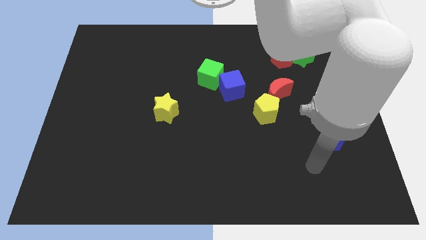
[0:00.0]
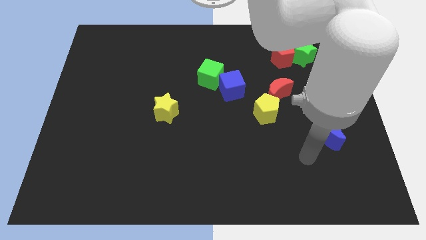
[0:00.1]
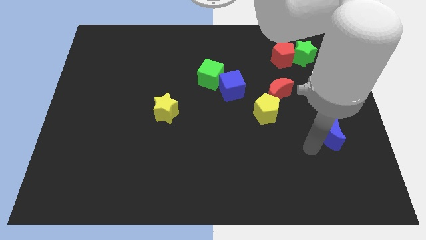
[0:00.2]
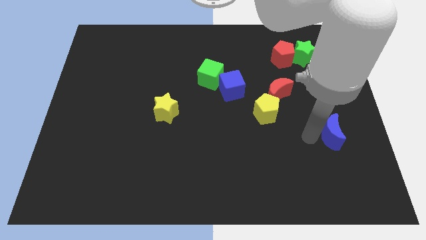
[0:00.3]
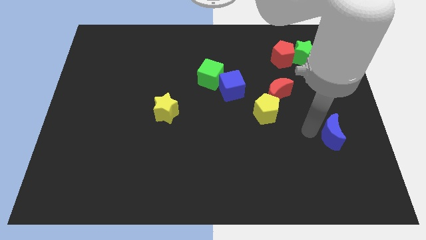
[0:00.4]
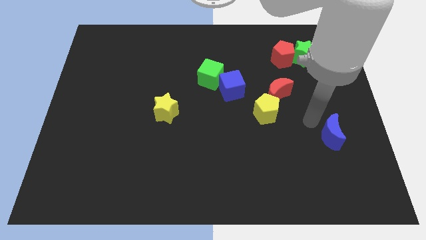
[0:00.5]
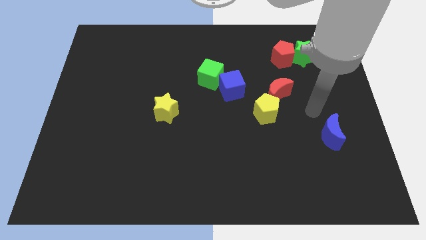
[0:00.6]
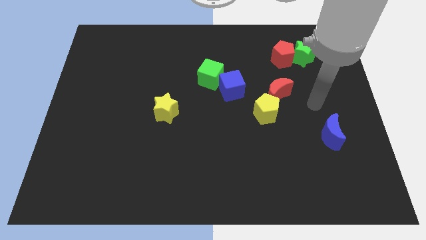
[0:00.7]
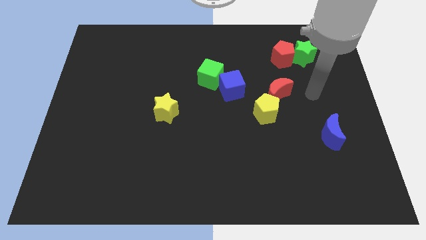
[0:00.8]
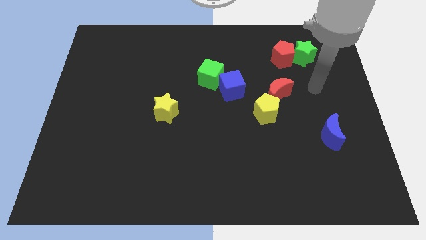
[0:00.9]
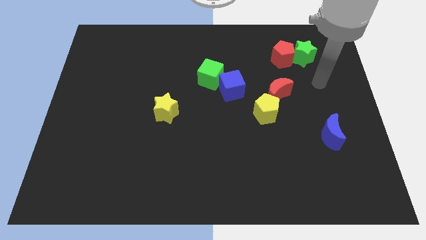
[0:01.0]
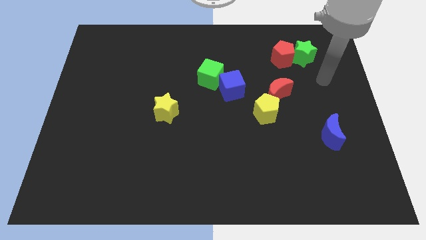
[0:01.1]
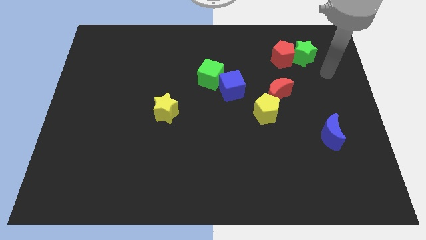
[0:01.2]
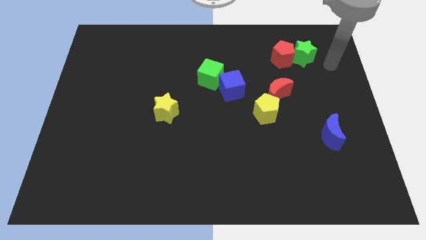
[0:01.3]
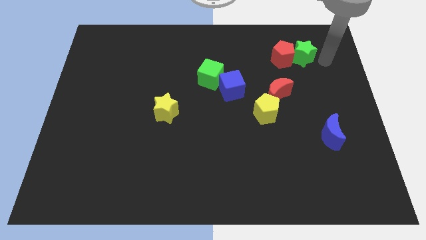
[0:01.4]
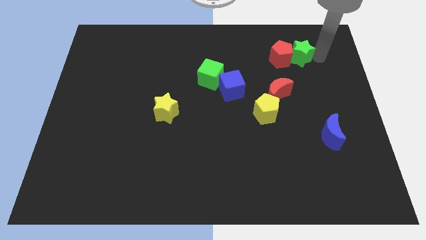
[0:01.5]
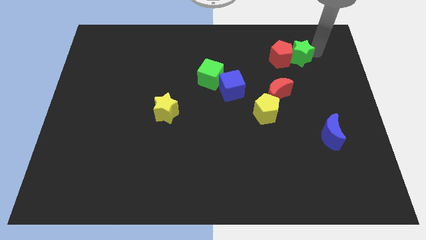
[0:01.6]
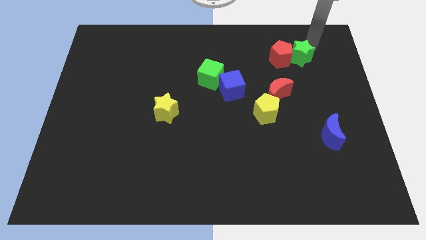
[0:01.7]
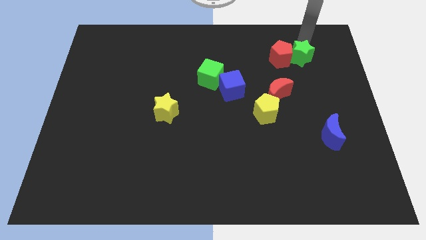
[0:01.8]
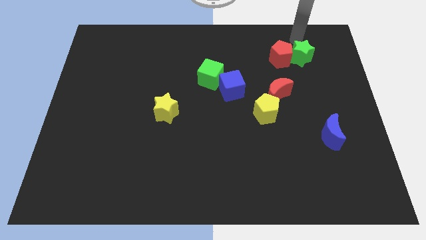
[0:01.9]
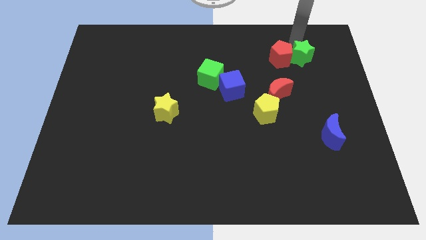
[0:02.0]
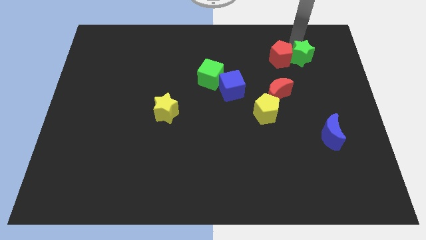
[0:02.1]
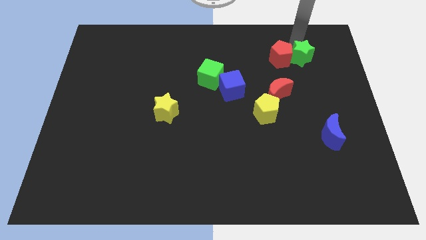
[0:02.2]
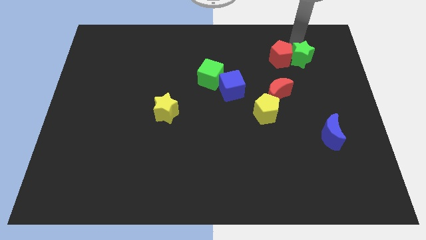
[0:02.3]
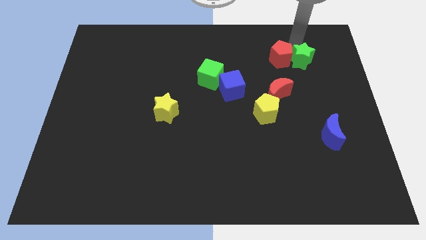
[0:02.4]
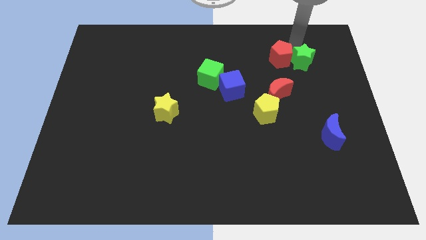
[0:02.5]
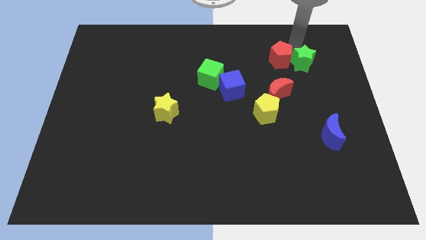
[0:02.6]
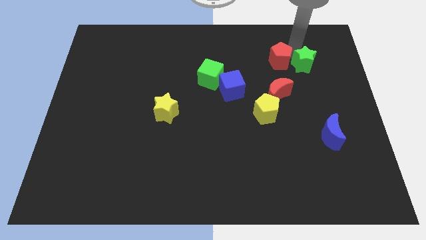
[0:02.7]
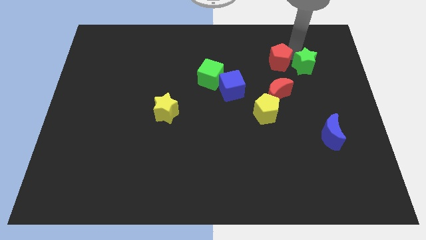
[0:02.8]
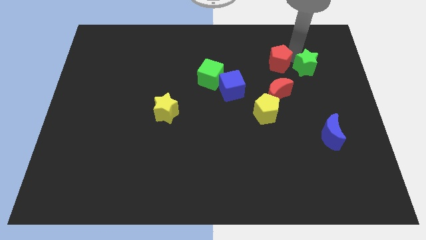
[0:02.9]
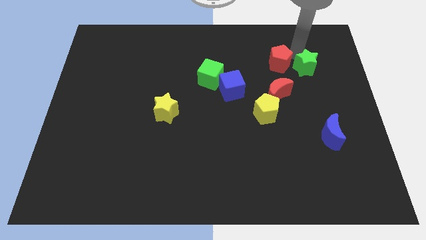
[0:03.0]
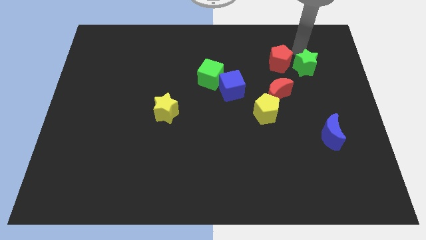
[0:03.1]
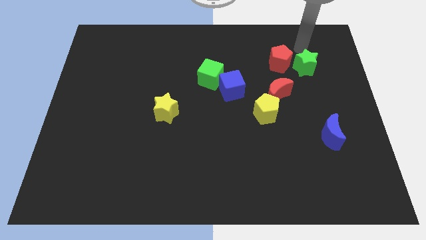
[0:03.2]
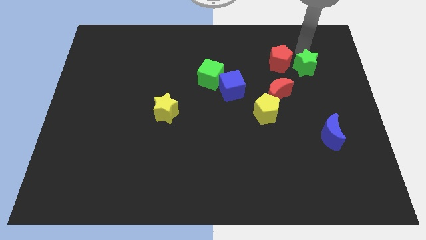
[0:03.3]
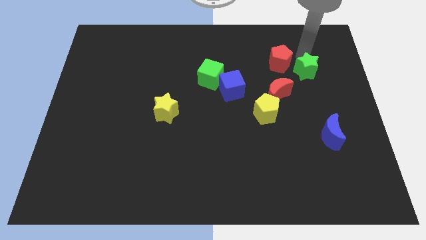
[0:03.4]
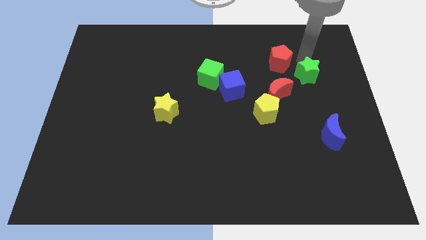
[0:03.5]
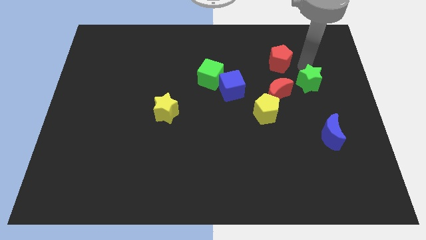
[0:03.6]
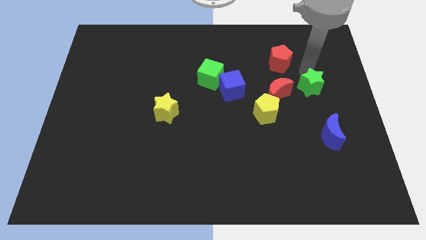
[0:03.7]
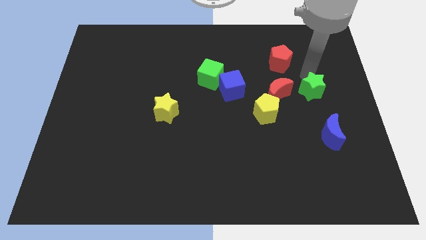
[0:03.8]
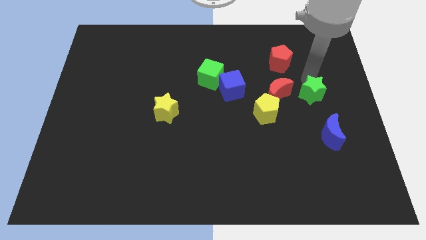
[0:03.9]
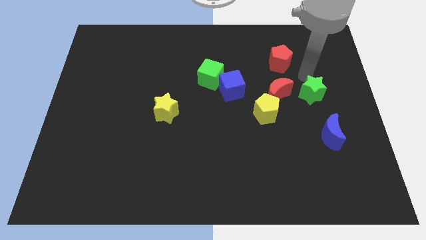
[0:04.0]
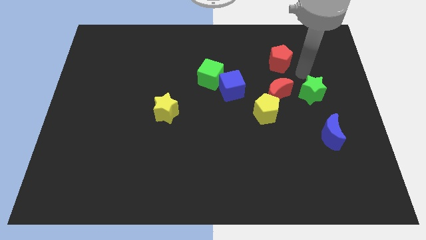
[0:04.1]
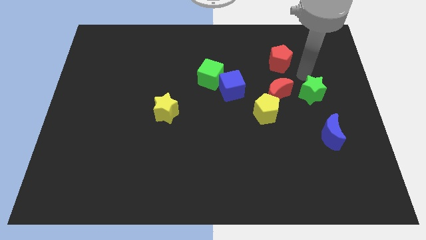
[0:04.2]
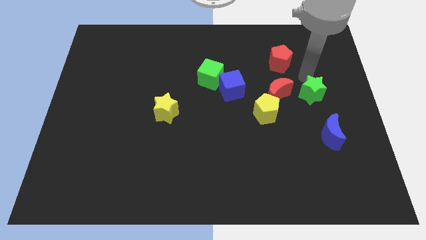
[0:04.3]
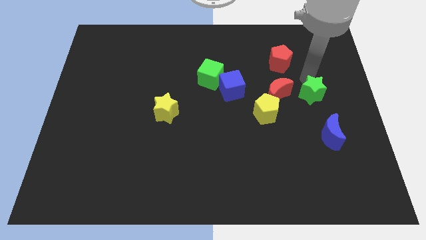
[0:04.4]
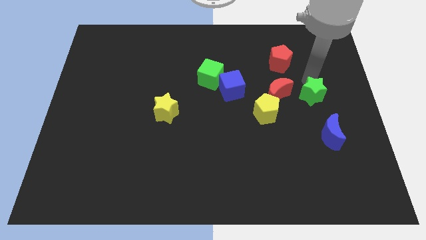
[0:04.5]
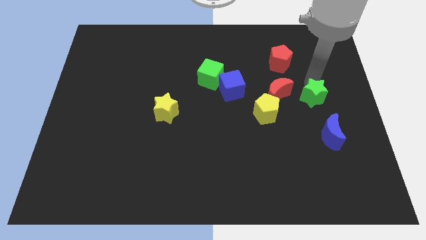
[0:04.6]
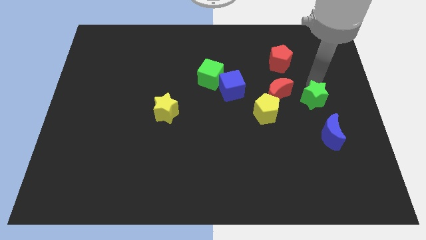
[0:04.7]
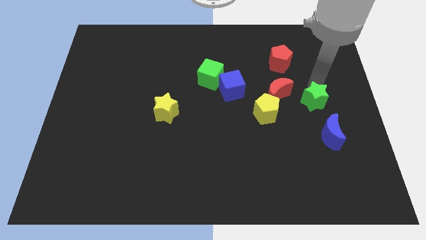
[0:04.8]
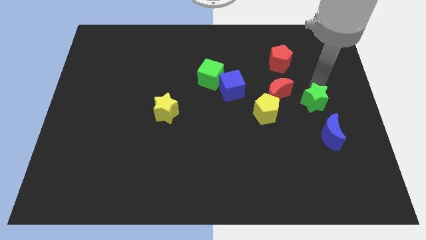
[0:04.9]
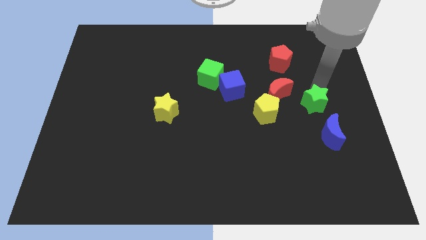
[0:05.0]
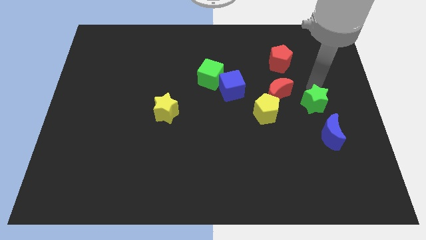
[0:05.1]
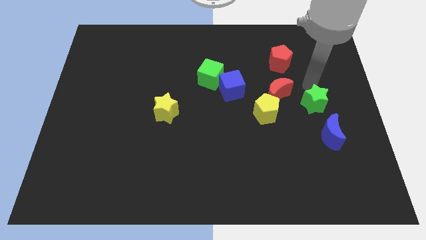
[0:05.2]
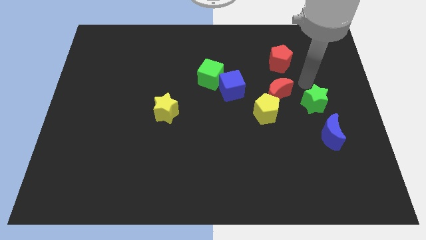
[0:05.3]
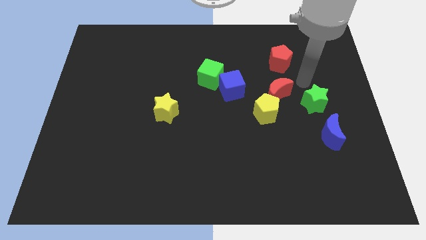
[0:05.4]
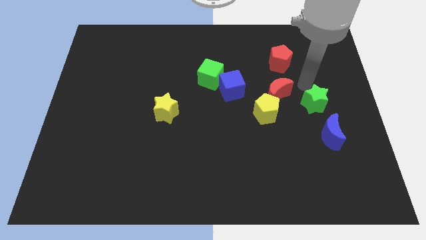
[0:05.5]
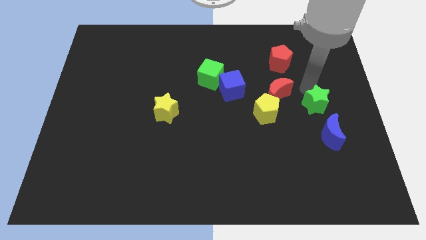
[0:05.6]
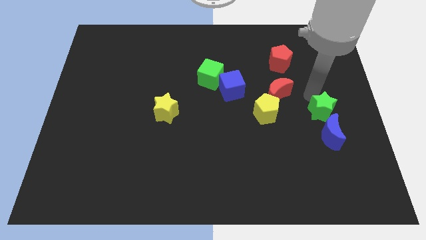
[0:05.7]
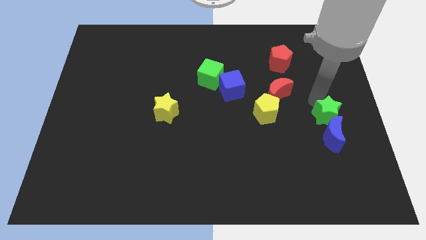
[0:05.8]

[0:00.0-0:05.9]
push the green star close to the blue moon

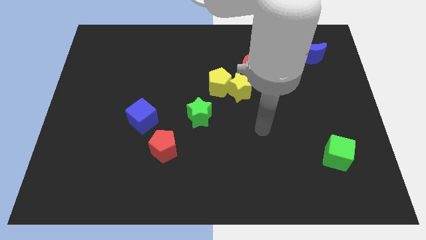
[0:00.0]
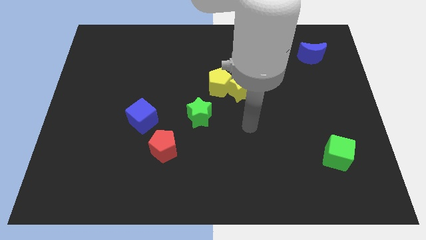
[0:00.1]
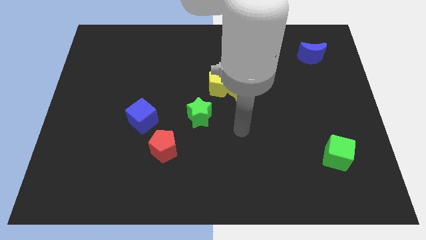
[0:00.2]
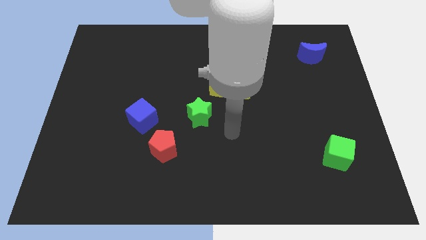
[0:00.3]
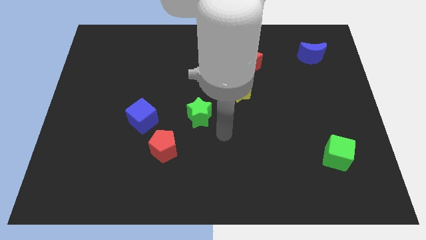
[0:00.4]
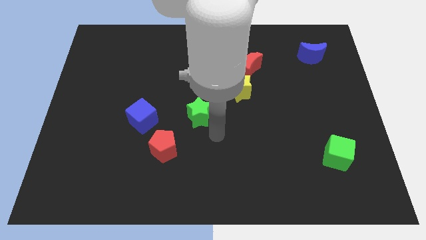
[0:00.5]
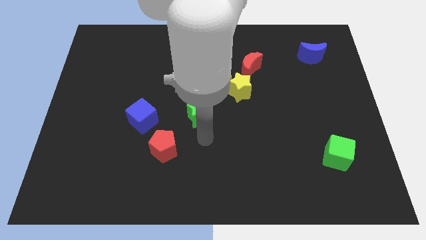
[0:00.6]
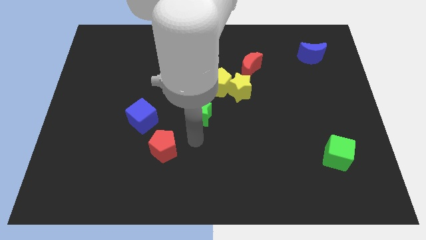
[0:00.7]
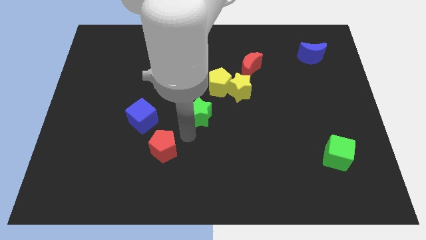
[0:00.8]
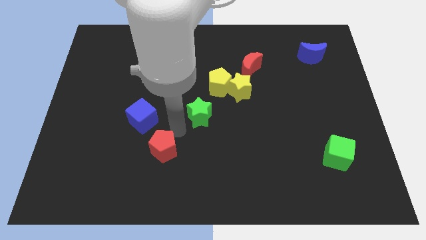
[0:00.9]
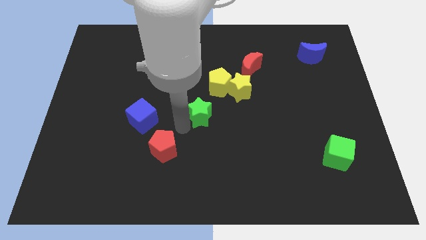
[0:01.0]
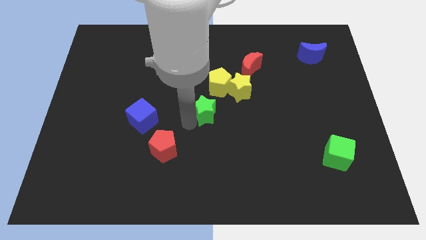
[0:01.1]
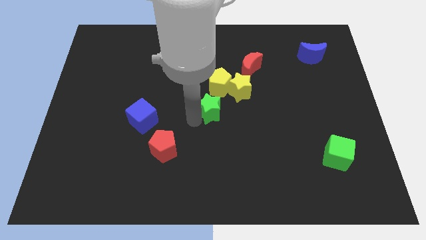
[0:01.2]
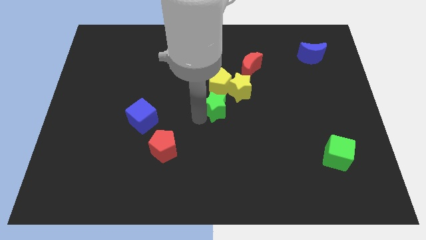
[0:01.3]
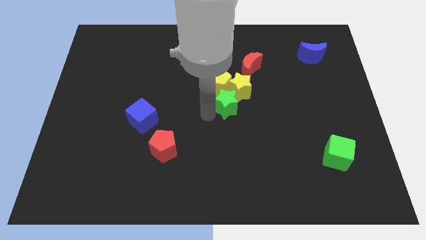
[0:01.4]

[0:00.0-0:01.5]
slide the green star next to the yellow star
